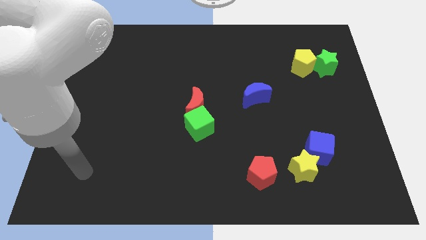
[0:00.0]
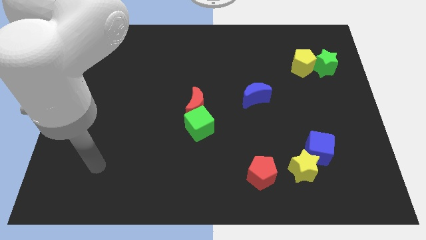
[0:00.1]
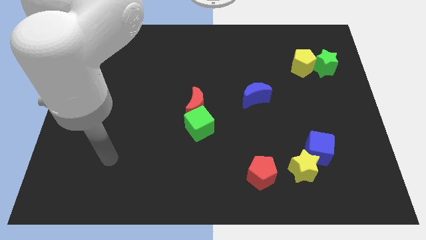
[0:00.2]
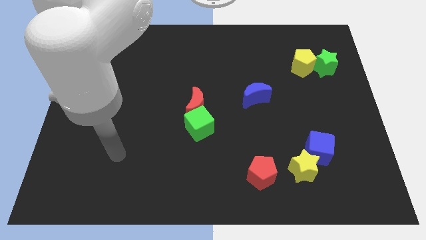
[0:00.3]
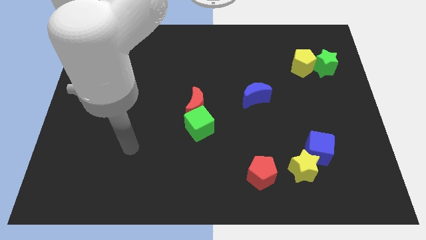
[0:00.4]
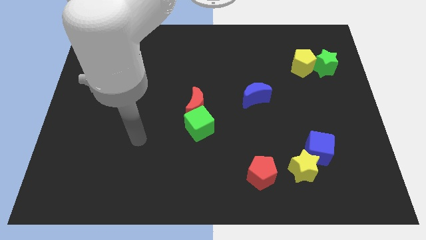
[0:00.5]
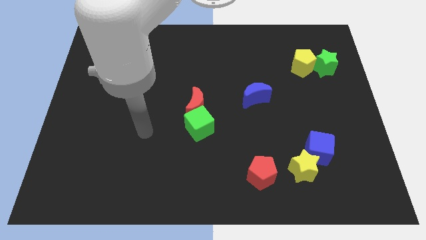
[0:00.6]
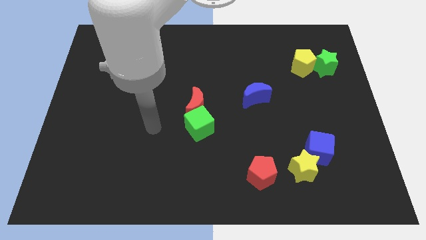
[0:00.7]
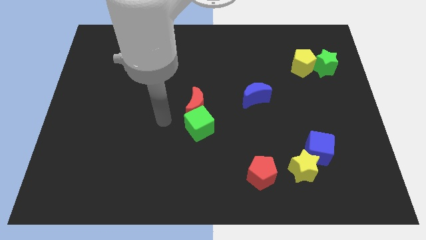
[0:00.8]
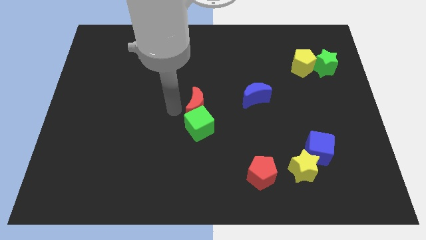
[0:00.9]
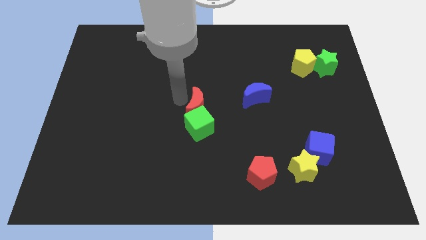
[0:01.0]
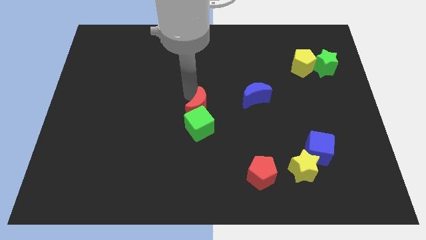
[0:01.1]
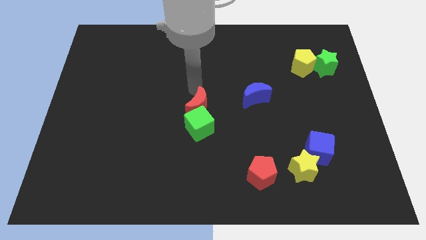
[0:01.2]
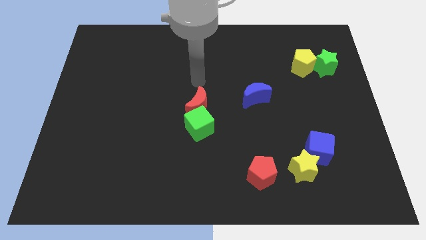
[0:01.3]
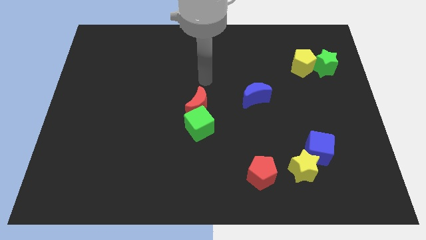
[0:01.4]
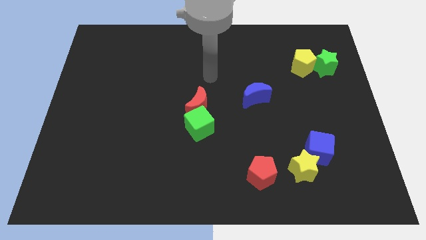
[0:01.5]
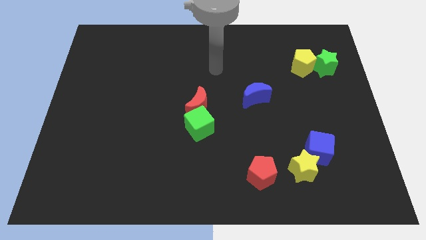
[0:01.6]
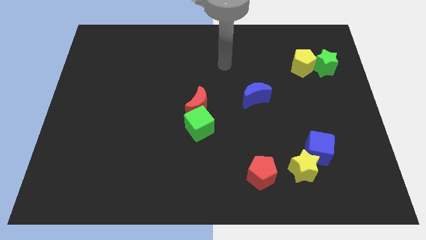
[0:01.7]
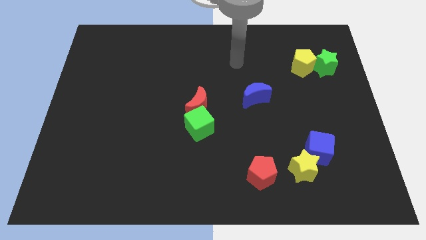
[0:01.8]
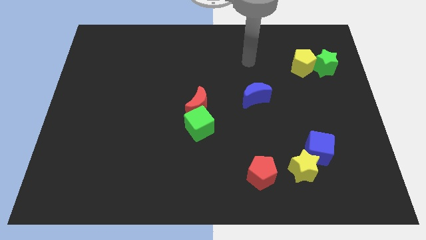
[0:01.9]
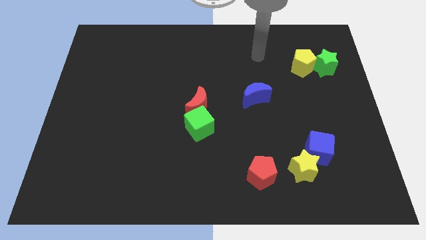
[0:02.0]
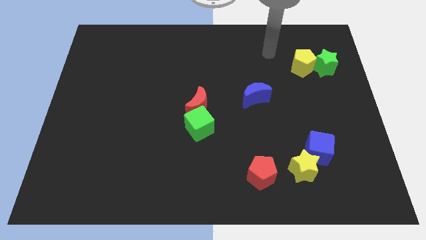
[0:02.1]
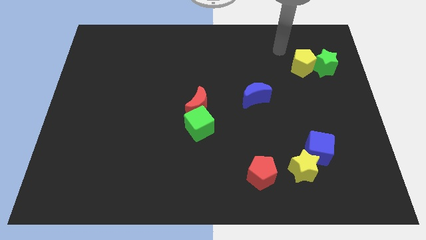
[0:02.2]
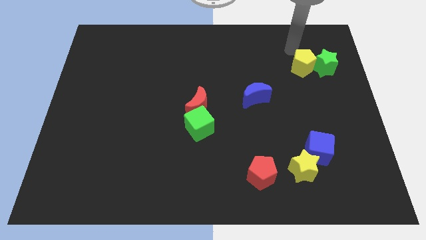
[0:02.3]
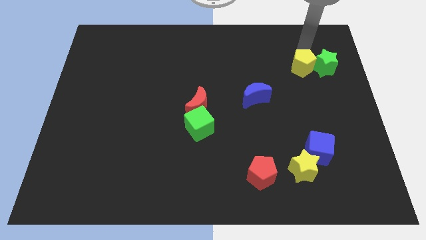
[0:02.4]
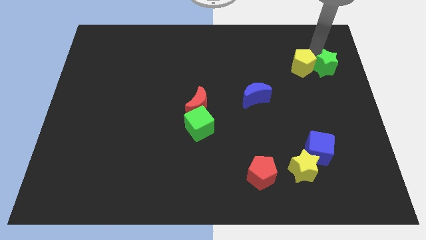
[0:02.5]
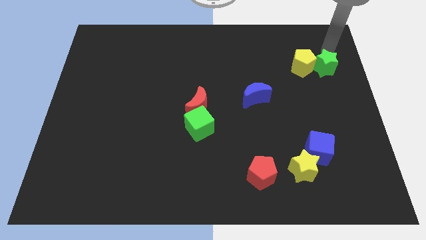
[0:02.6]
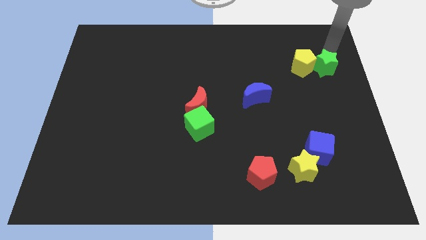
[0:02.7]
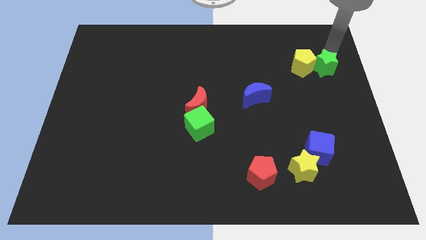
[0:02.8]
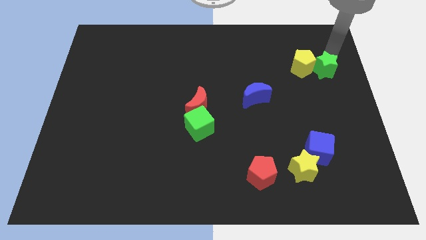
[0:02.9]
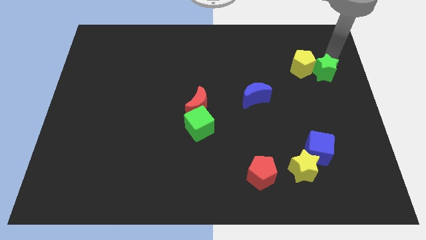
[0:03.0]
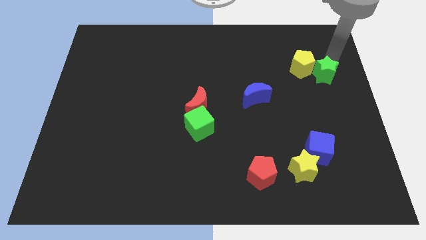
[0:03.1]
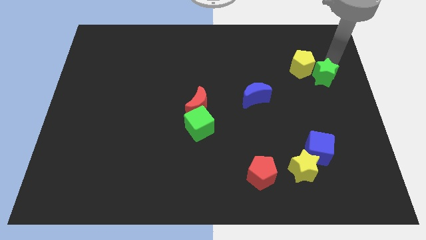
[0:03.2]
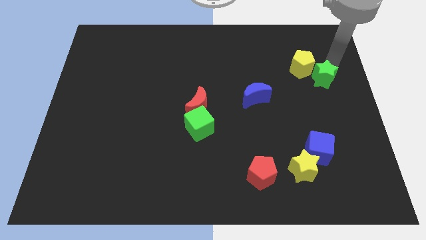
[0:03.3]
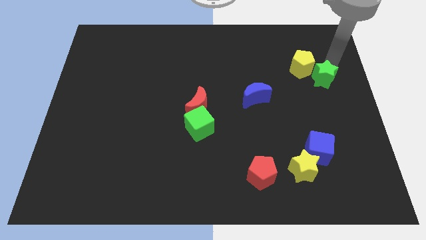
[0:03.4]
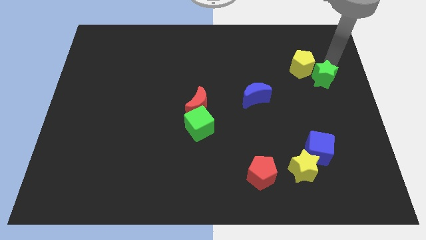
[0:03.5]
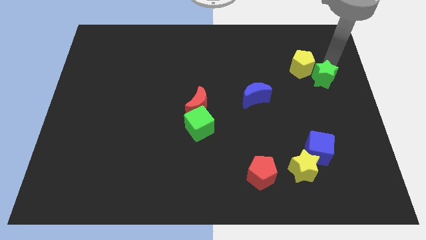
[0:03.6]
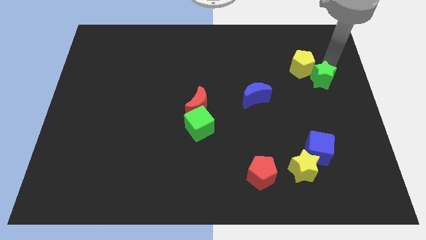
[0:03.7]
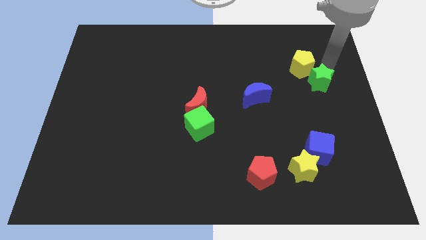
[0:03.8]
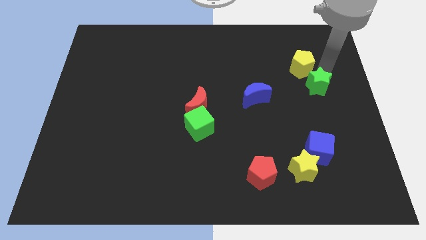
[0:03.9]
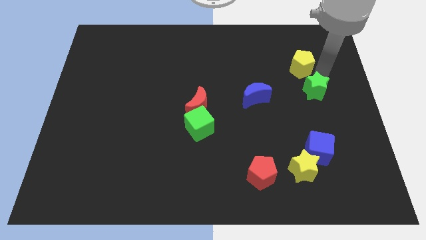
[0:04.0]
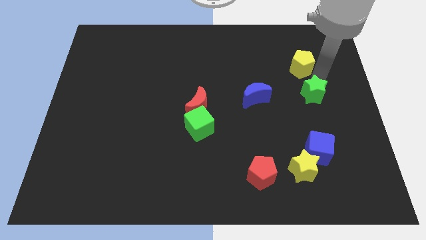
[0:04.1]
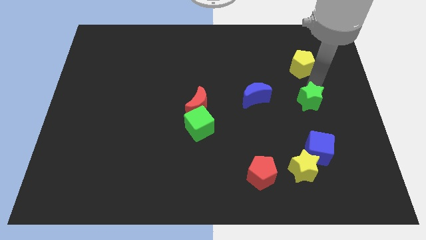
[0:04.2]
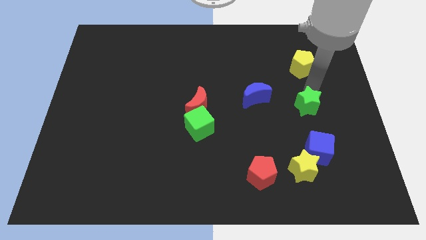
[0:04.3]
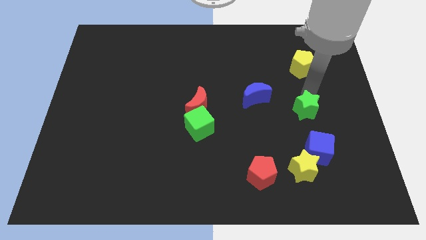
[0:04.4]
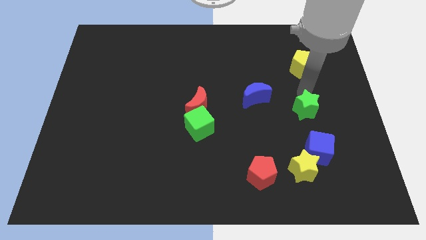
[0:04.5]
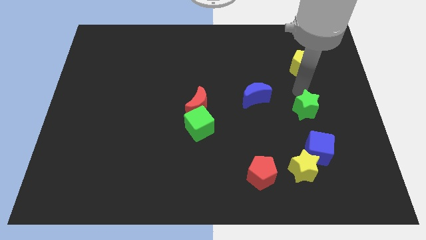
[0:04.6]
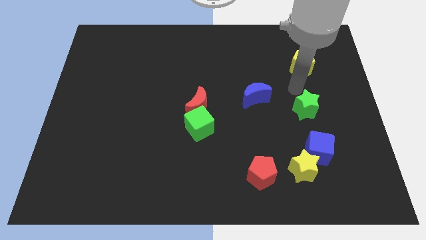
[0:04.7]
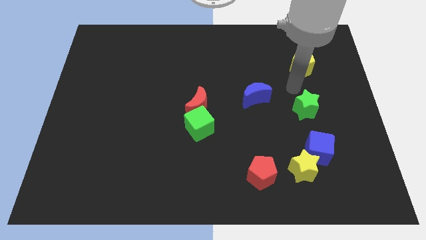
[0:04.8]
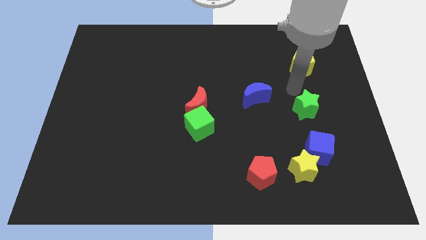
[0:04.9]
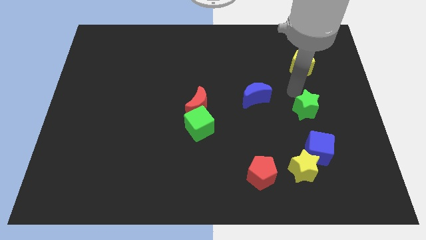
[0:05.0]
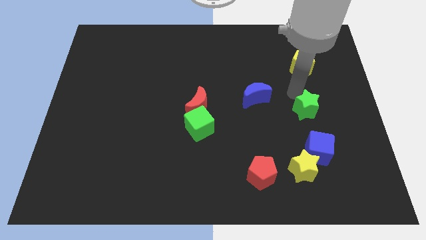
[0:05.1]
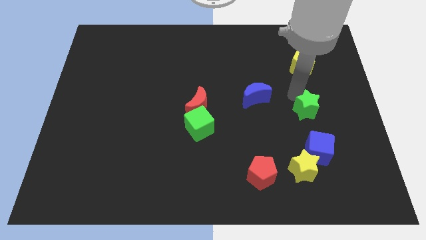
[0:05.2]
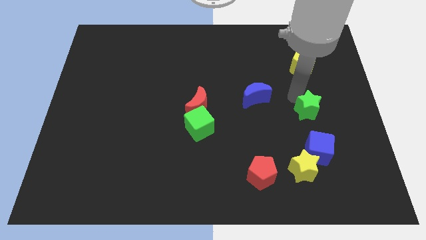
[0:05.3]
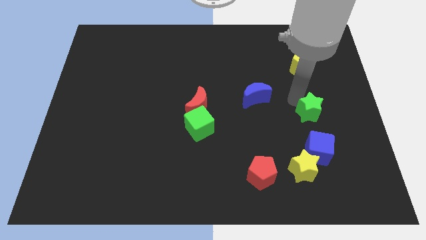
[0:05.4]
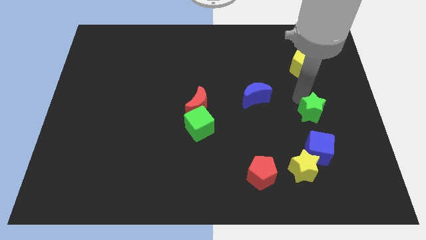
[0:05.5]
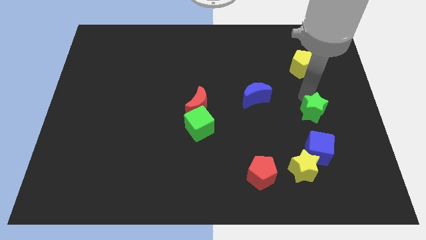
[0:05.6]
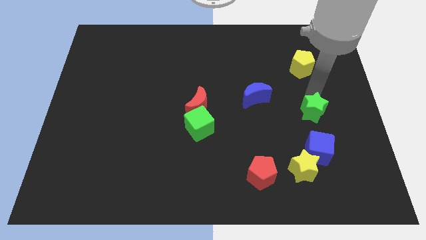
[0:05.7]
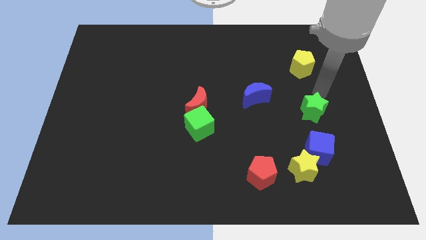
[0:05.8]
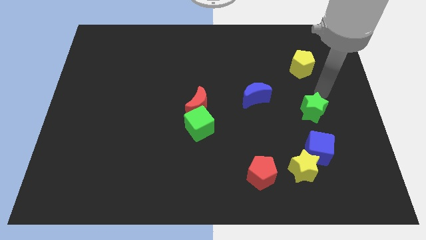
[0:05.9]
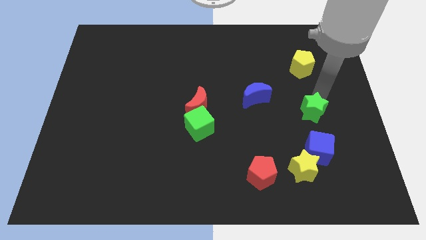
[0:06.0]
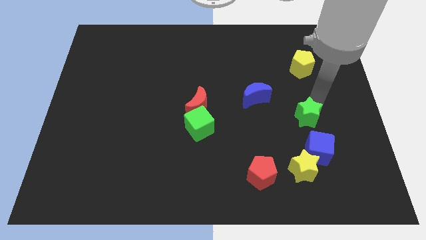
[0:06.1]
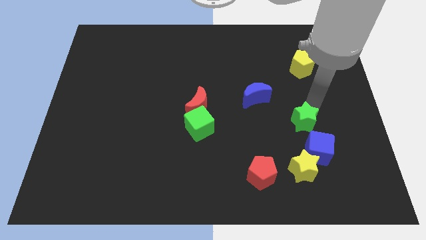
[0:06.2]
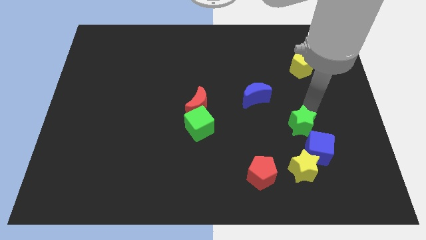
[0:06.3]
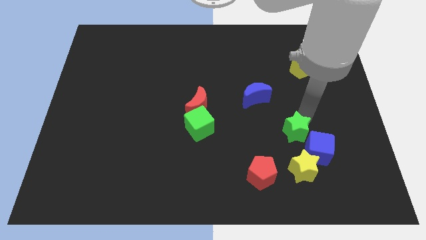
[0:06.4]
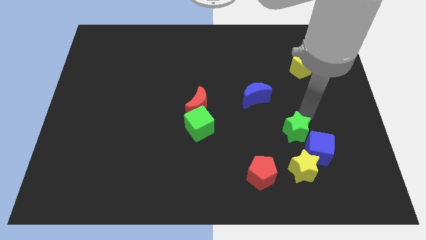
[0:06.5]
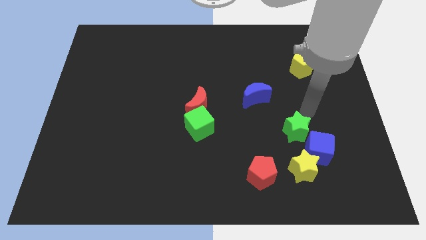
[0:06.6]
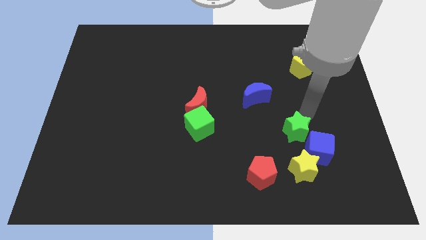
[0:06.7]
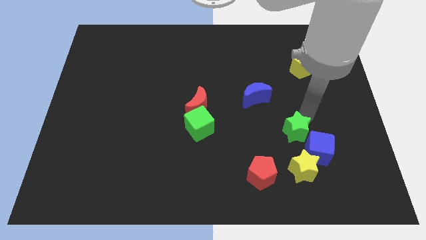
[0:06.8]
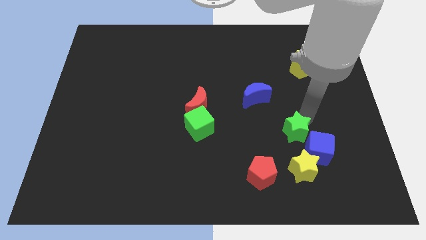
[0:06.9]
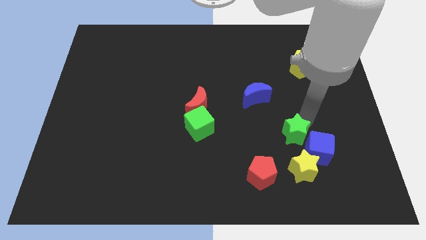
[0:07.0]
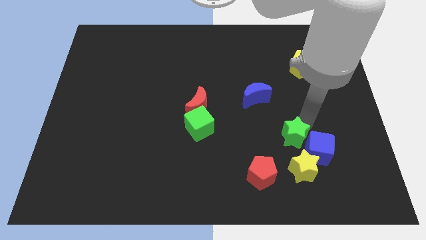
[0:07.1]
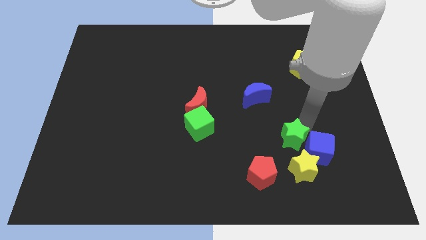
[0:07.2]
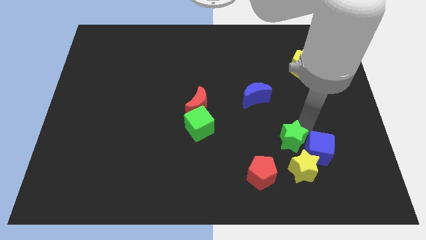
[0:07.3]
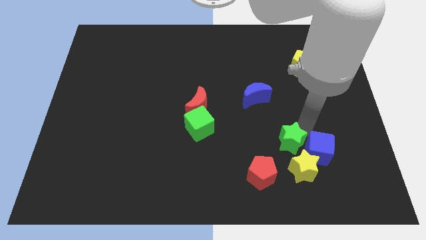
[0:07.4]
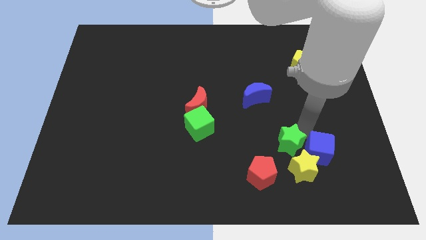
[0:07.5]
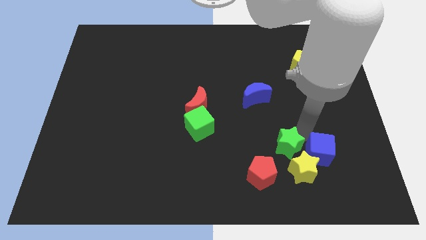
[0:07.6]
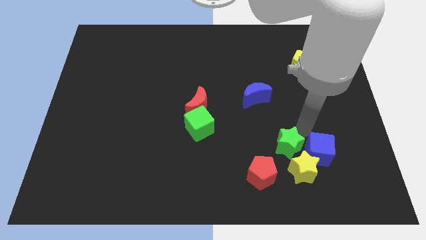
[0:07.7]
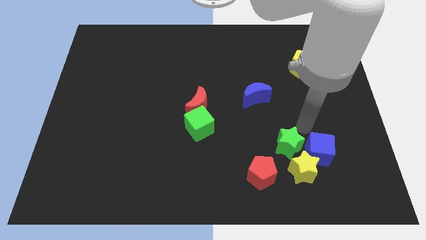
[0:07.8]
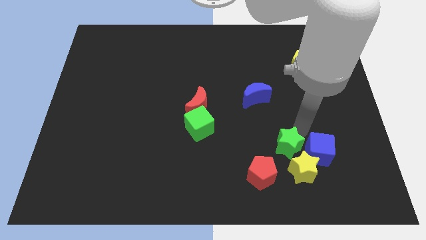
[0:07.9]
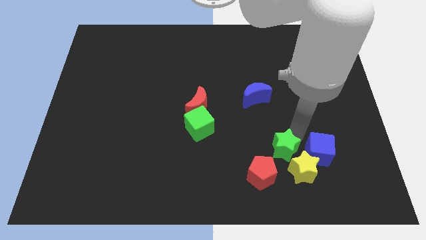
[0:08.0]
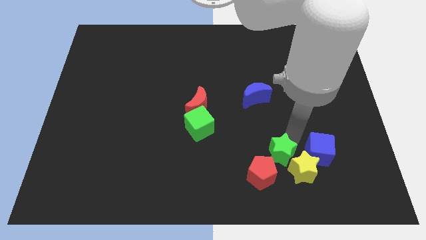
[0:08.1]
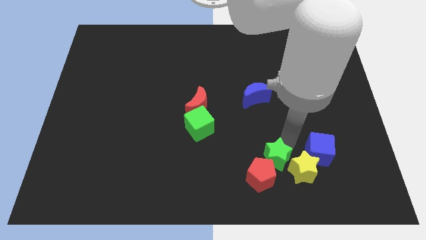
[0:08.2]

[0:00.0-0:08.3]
put the green star close to the red pentagon
